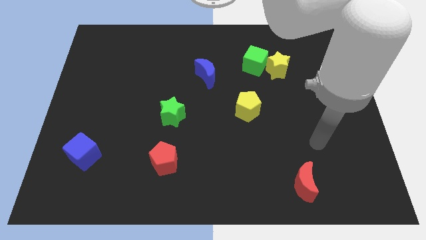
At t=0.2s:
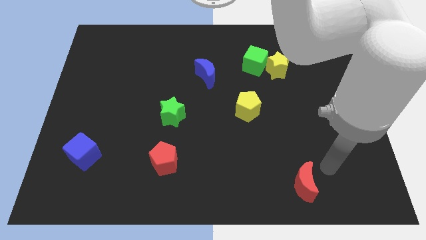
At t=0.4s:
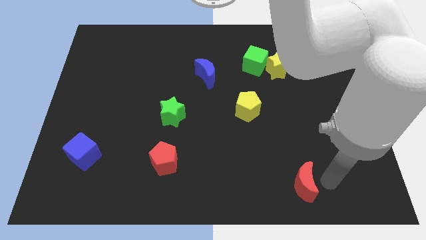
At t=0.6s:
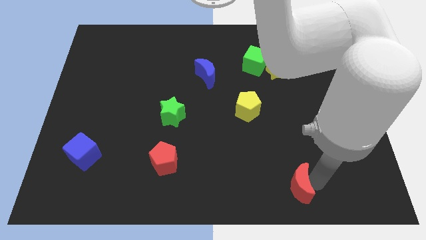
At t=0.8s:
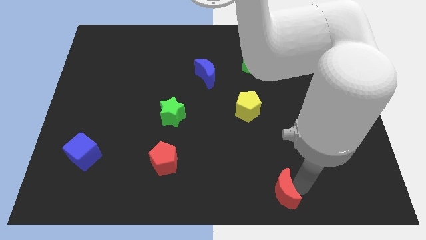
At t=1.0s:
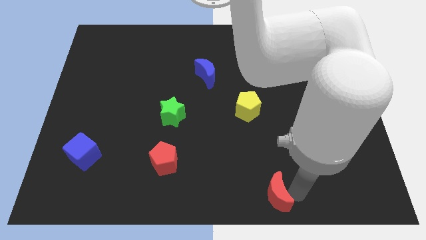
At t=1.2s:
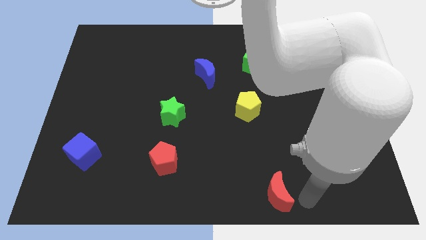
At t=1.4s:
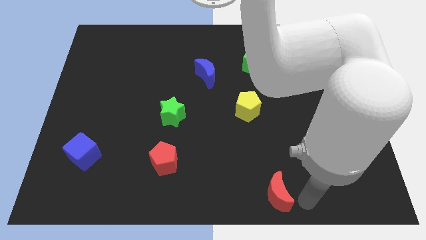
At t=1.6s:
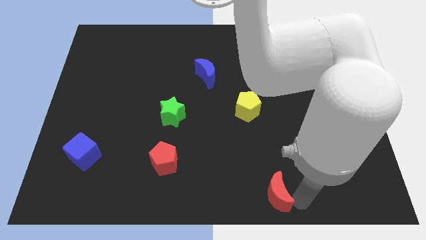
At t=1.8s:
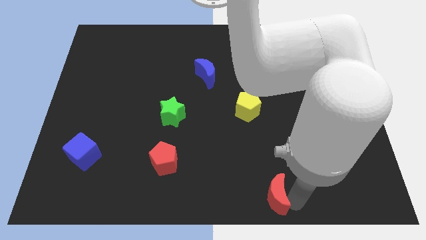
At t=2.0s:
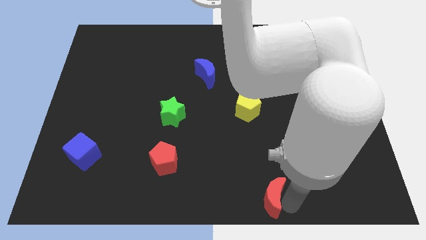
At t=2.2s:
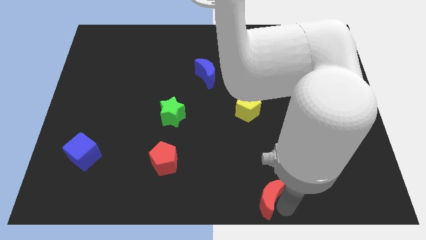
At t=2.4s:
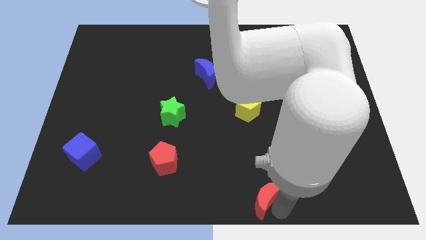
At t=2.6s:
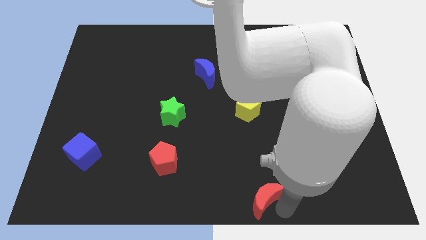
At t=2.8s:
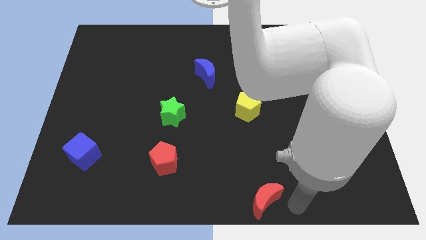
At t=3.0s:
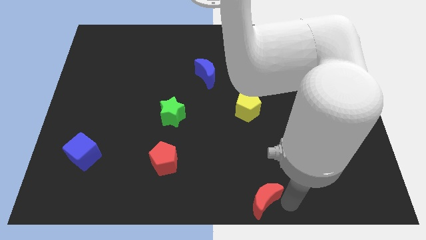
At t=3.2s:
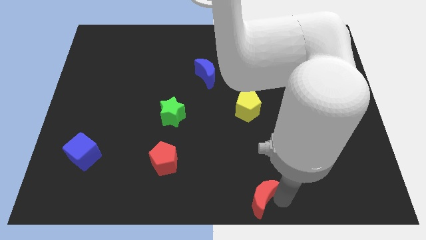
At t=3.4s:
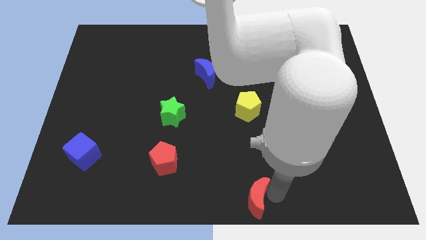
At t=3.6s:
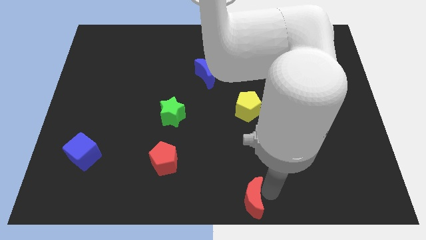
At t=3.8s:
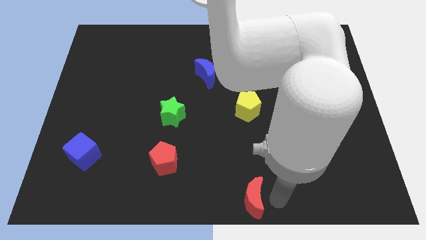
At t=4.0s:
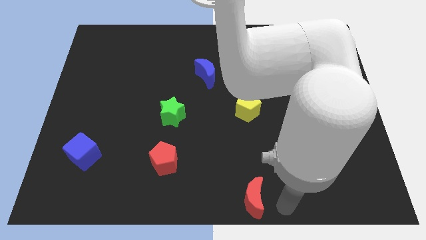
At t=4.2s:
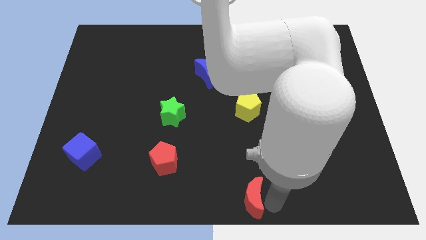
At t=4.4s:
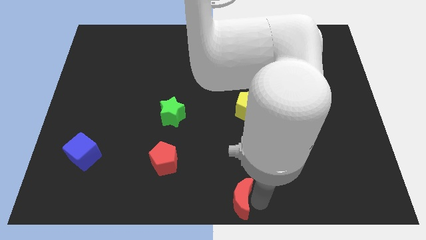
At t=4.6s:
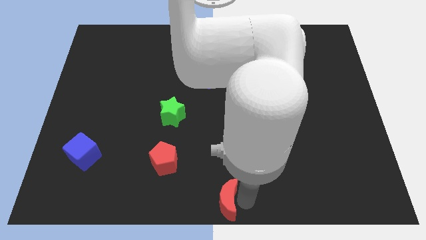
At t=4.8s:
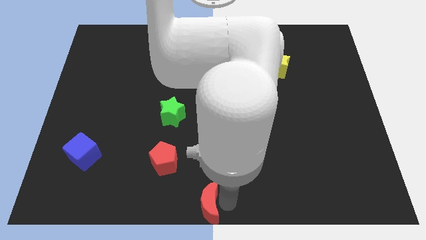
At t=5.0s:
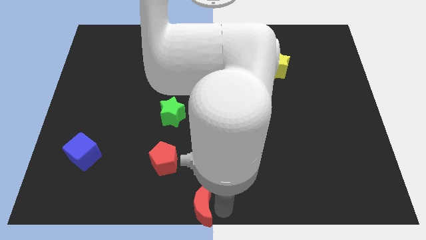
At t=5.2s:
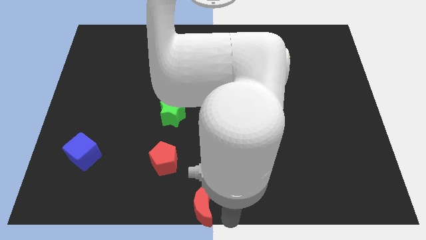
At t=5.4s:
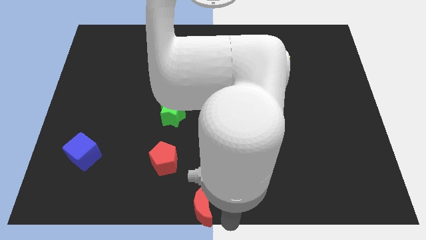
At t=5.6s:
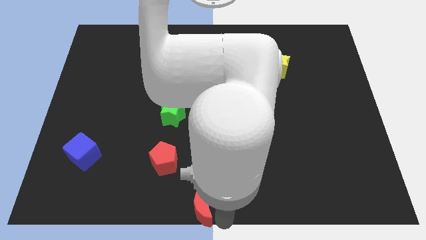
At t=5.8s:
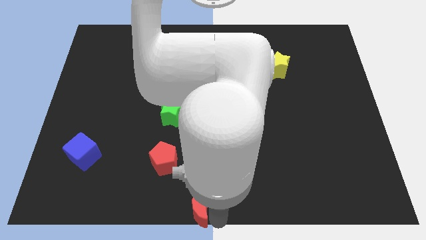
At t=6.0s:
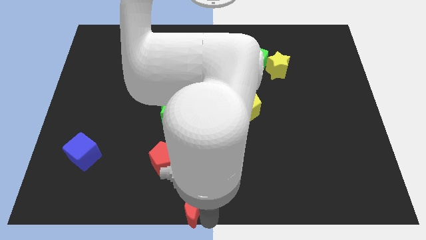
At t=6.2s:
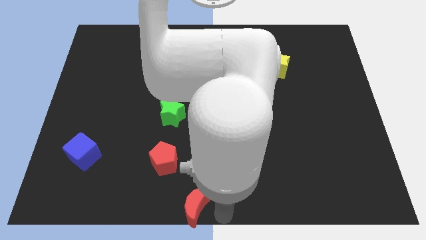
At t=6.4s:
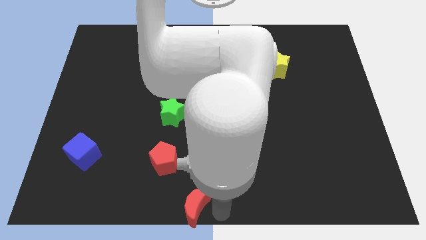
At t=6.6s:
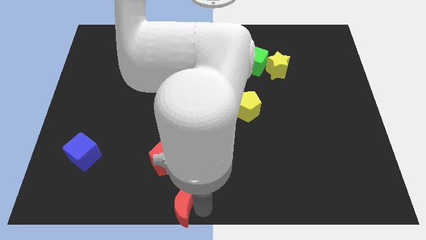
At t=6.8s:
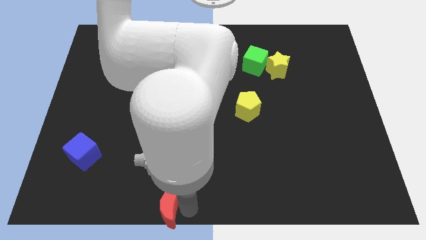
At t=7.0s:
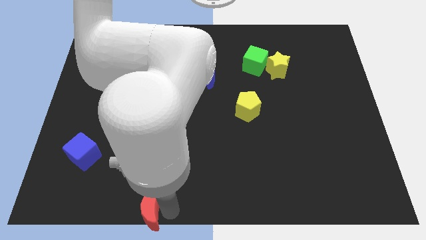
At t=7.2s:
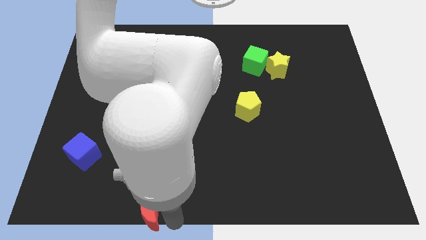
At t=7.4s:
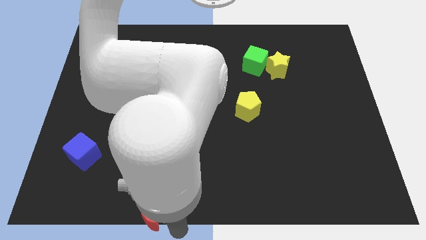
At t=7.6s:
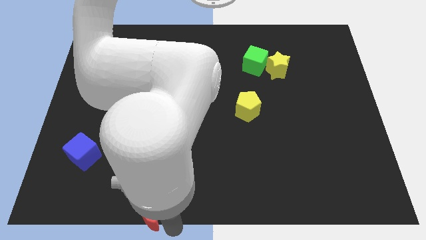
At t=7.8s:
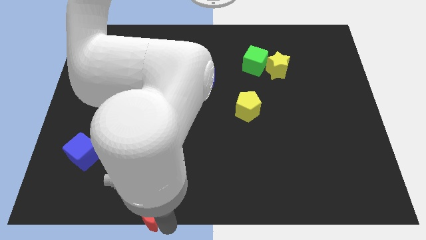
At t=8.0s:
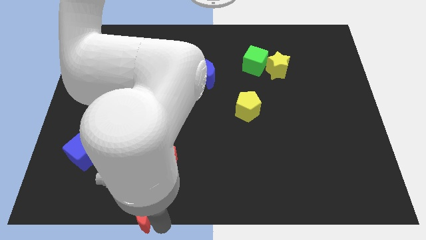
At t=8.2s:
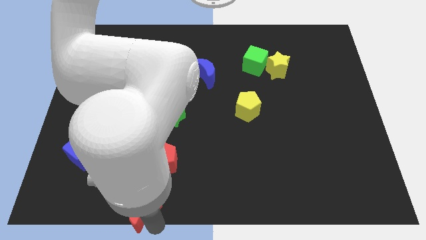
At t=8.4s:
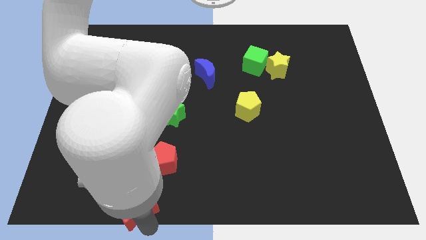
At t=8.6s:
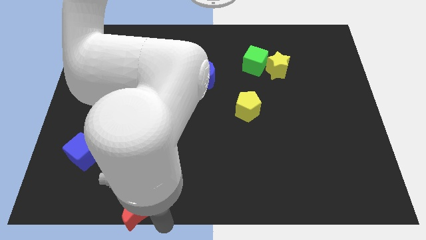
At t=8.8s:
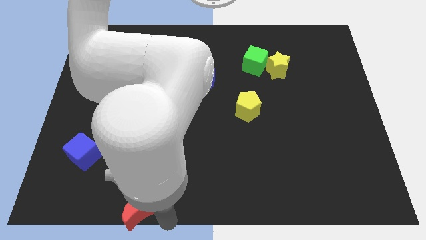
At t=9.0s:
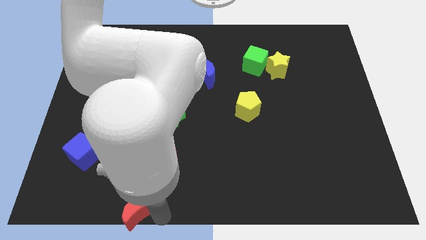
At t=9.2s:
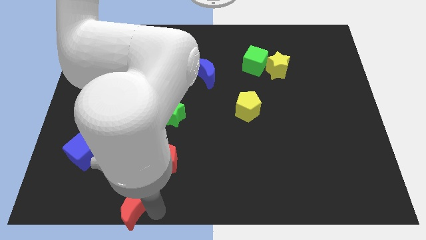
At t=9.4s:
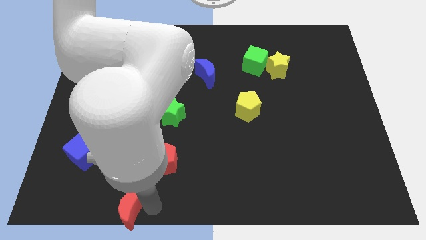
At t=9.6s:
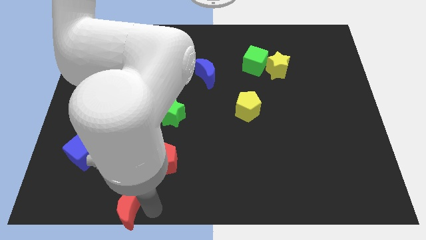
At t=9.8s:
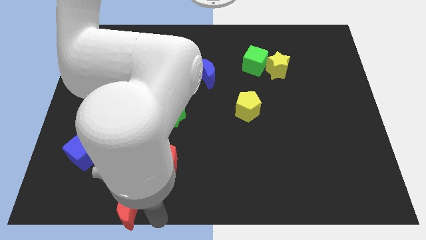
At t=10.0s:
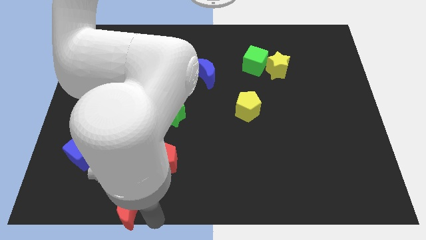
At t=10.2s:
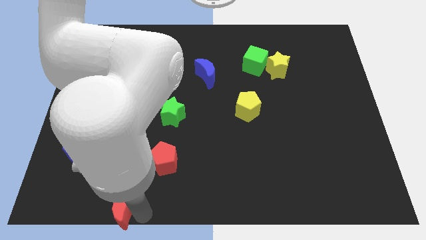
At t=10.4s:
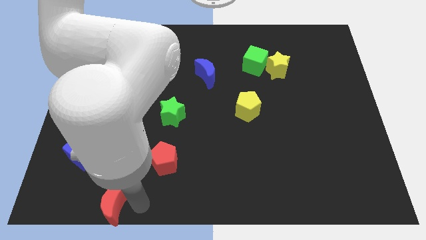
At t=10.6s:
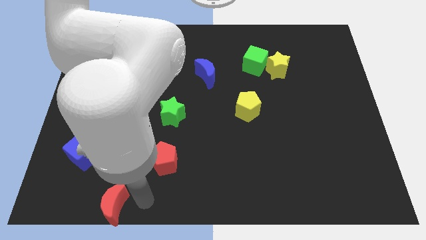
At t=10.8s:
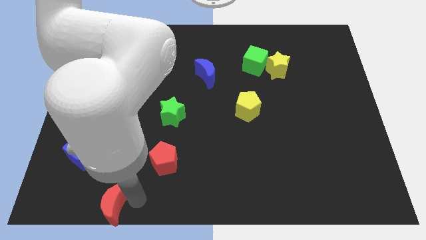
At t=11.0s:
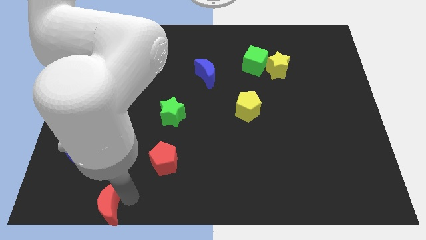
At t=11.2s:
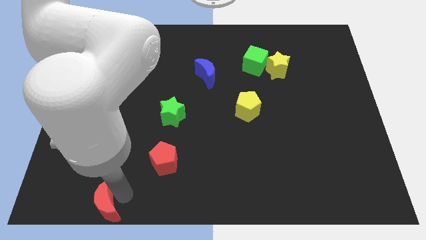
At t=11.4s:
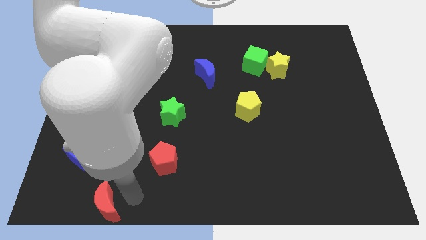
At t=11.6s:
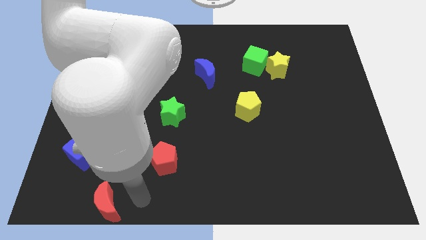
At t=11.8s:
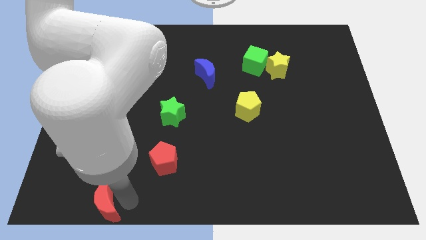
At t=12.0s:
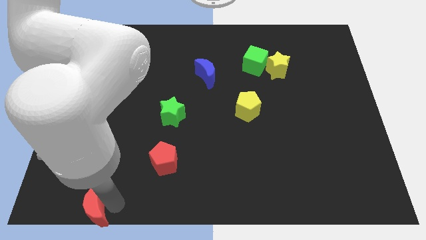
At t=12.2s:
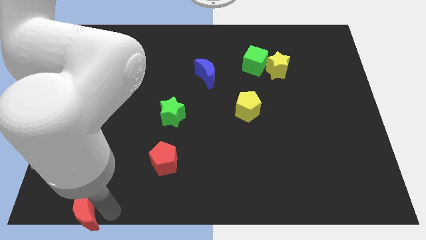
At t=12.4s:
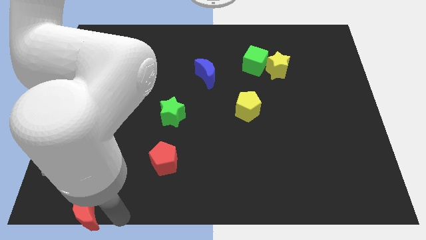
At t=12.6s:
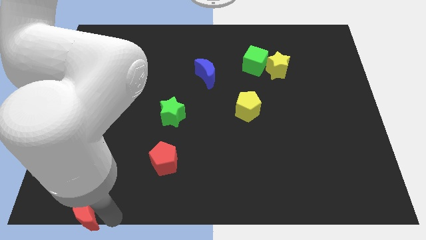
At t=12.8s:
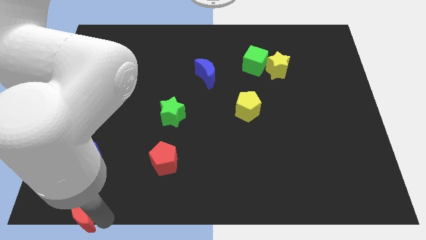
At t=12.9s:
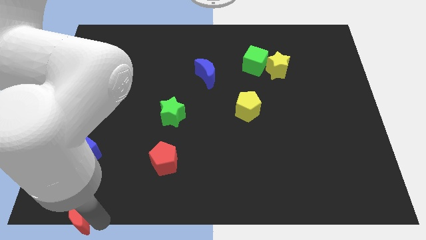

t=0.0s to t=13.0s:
move the red moon to the bottom left corner
